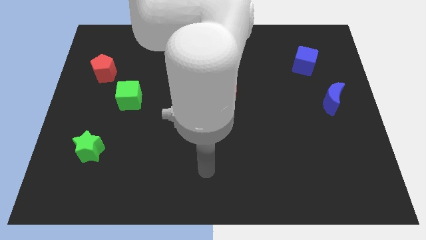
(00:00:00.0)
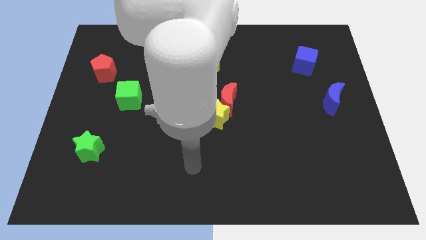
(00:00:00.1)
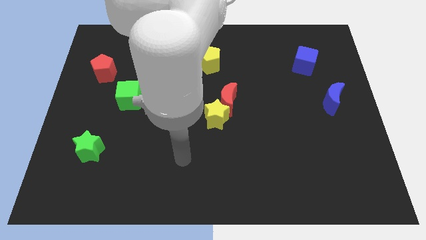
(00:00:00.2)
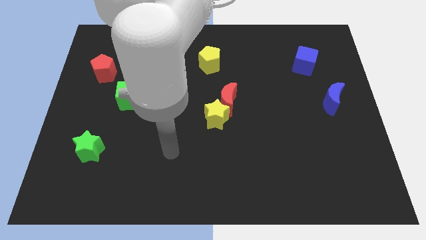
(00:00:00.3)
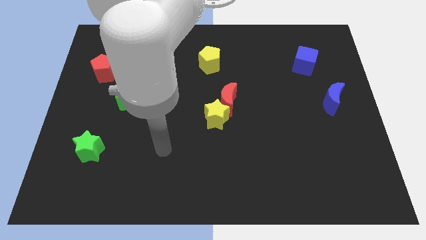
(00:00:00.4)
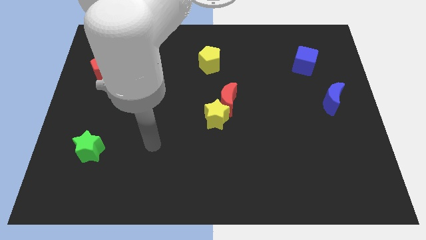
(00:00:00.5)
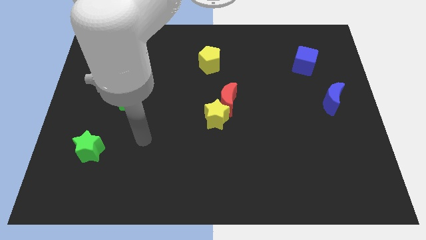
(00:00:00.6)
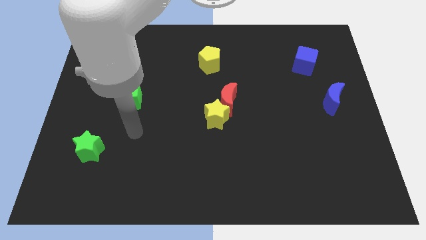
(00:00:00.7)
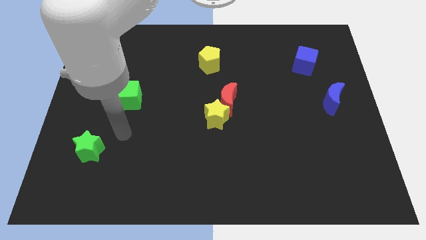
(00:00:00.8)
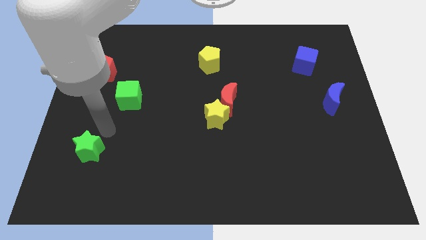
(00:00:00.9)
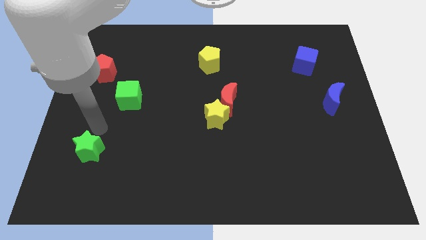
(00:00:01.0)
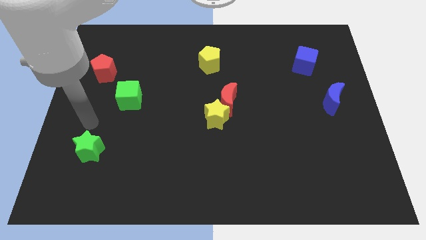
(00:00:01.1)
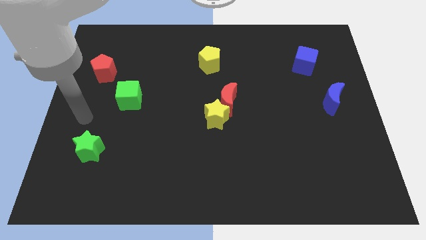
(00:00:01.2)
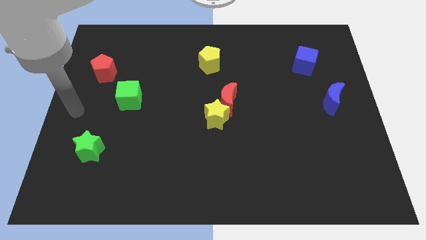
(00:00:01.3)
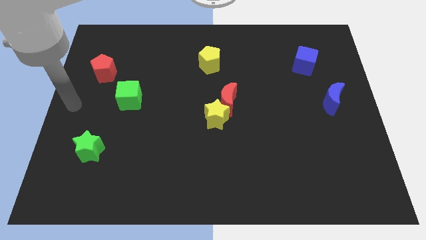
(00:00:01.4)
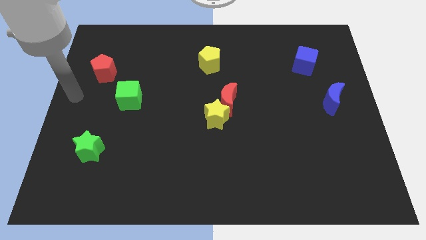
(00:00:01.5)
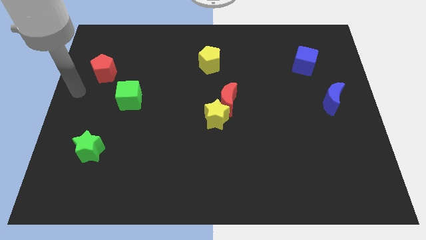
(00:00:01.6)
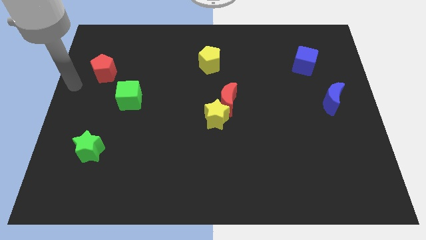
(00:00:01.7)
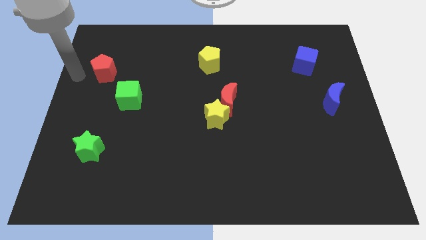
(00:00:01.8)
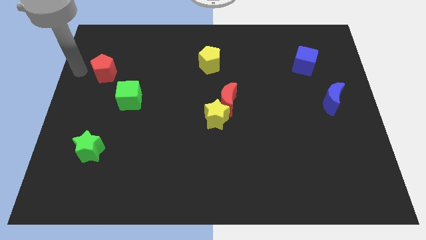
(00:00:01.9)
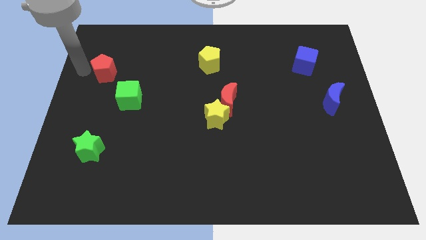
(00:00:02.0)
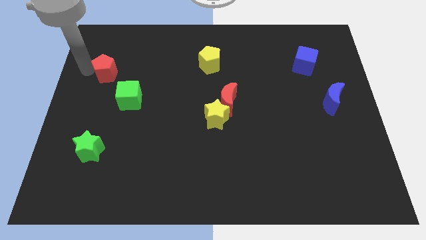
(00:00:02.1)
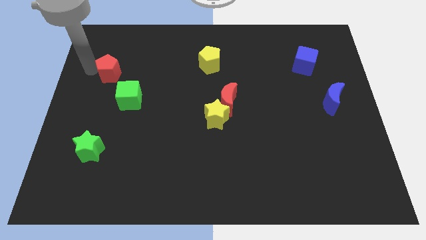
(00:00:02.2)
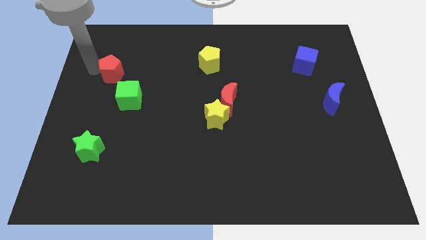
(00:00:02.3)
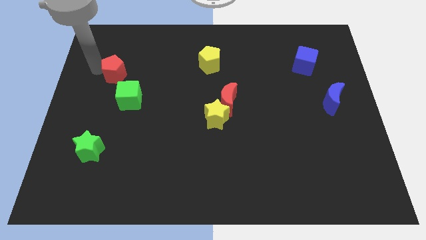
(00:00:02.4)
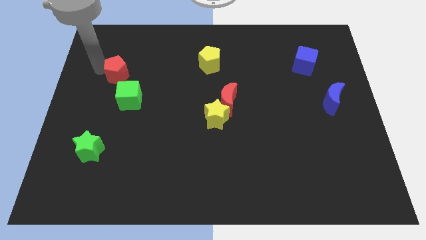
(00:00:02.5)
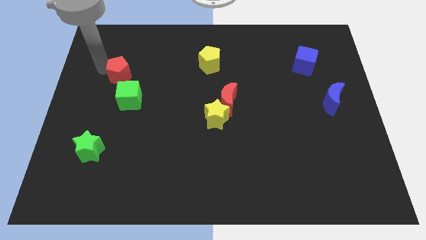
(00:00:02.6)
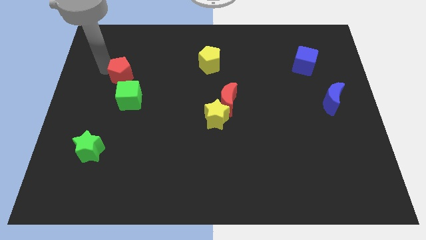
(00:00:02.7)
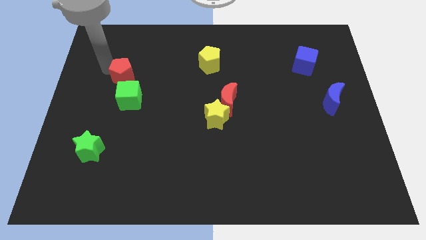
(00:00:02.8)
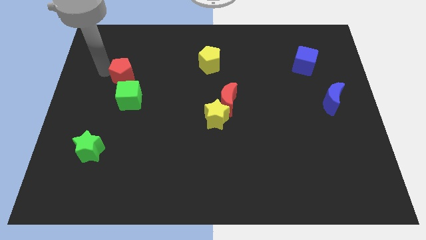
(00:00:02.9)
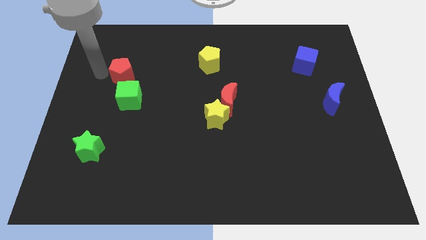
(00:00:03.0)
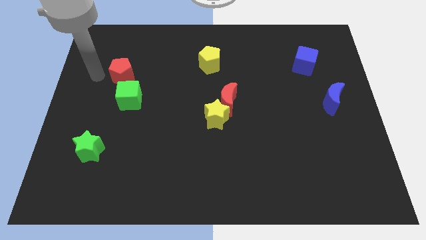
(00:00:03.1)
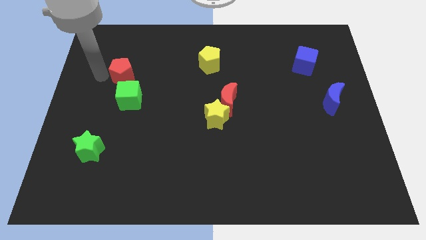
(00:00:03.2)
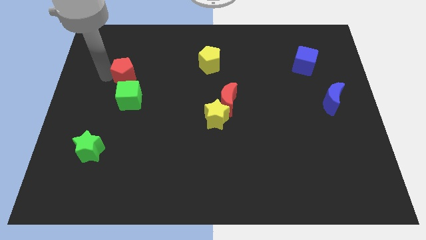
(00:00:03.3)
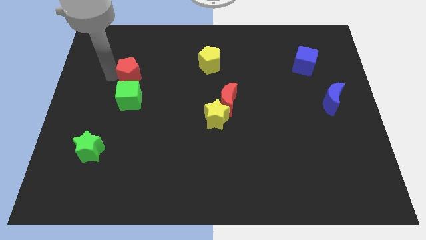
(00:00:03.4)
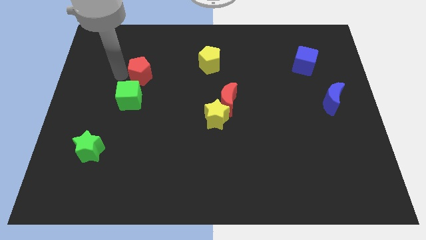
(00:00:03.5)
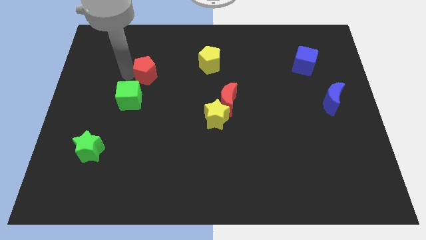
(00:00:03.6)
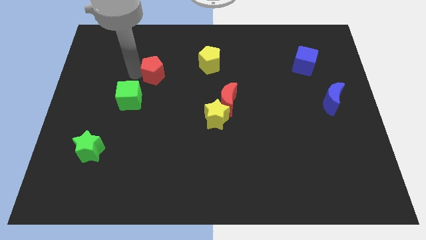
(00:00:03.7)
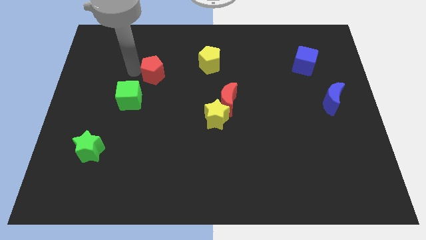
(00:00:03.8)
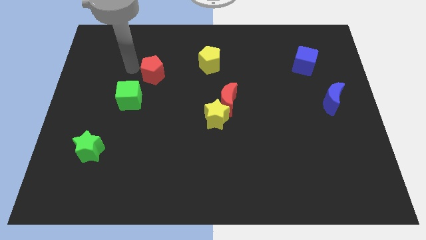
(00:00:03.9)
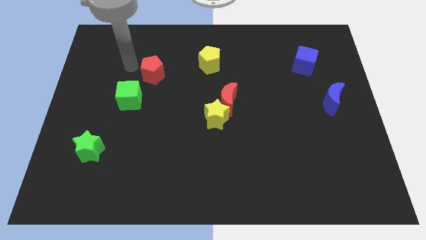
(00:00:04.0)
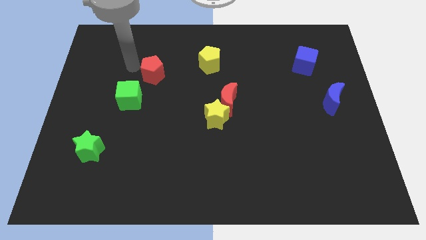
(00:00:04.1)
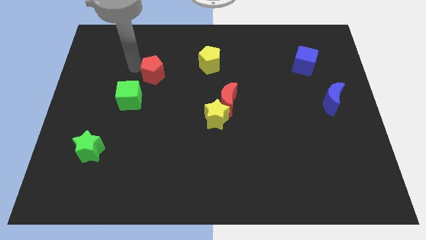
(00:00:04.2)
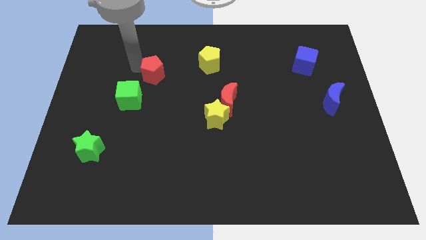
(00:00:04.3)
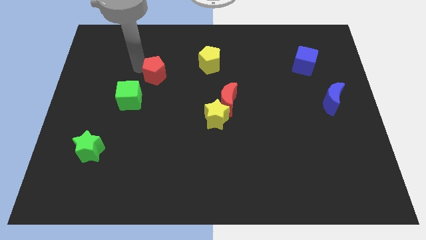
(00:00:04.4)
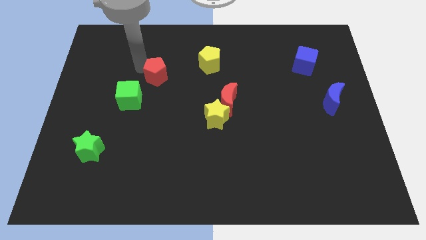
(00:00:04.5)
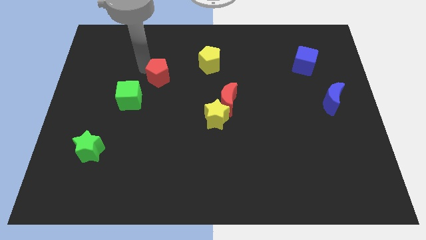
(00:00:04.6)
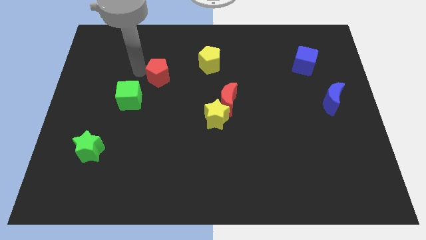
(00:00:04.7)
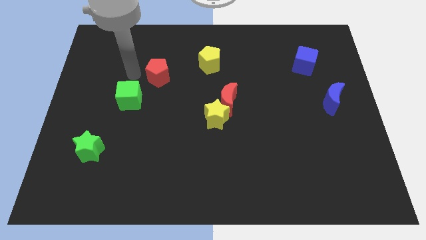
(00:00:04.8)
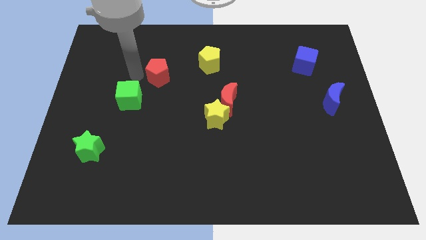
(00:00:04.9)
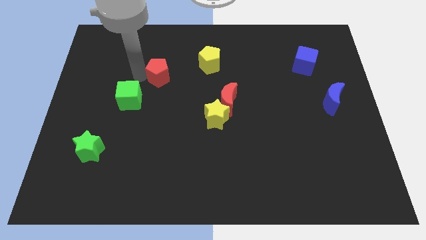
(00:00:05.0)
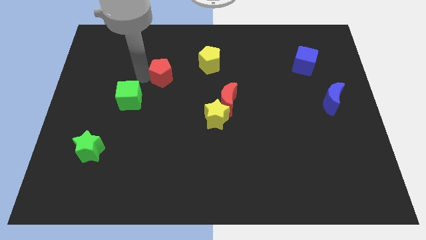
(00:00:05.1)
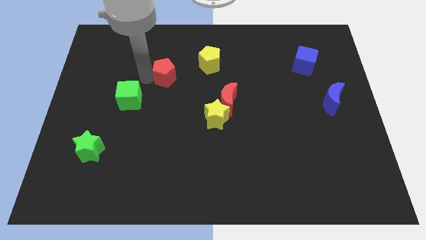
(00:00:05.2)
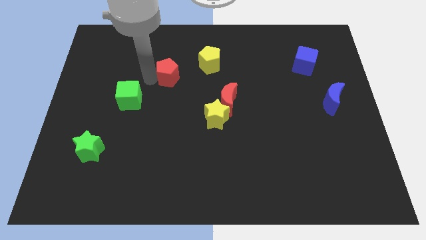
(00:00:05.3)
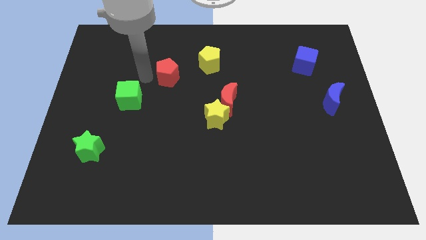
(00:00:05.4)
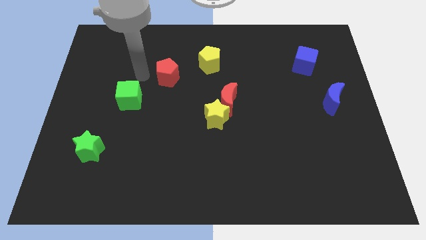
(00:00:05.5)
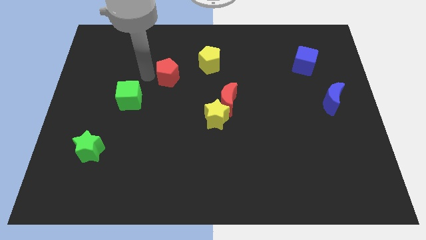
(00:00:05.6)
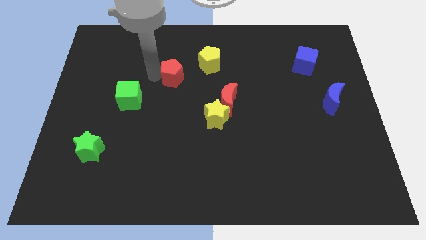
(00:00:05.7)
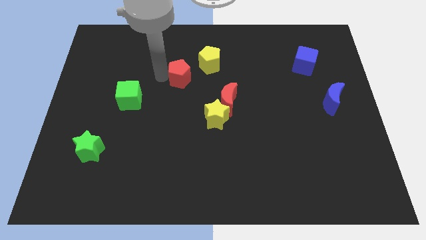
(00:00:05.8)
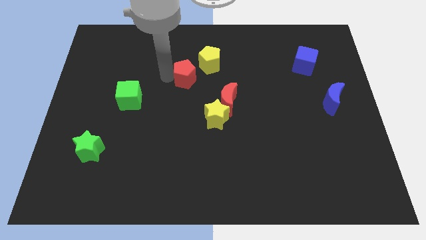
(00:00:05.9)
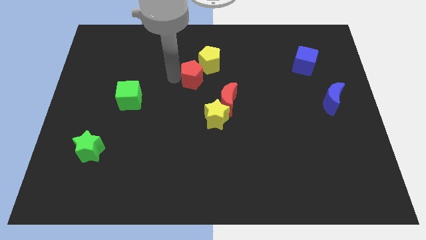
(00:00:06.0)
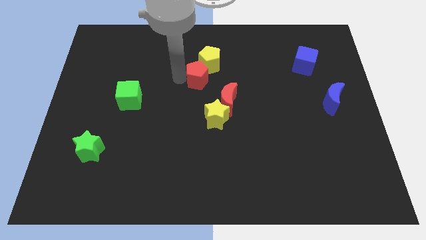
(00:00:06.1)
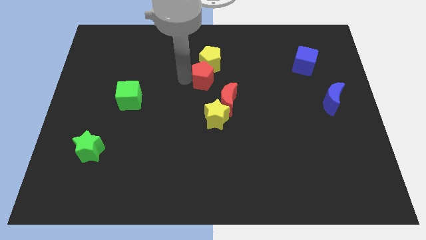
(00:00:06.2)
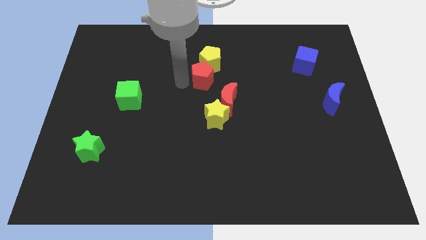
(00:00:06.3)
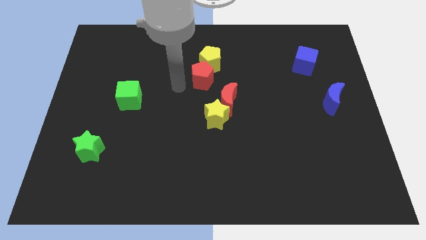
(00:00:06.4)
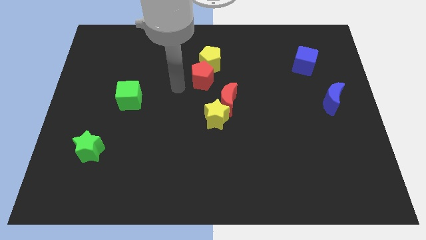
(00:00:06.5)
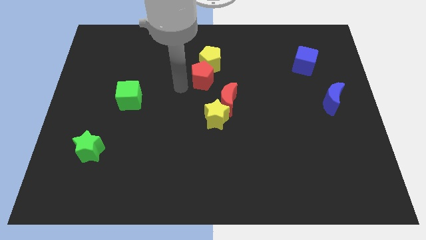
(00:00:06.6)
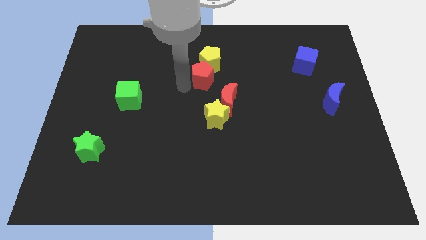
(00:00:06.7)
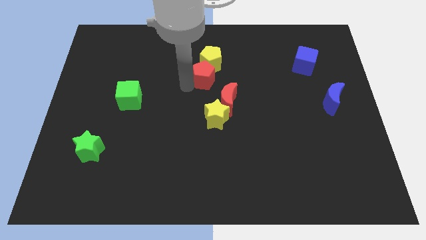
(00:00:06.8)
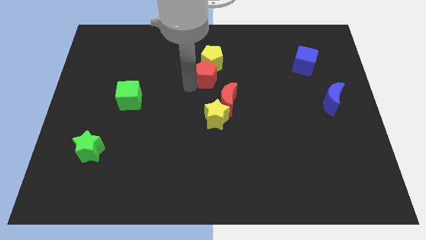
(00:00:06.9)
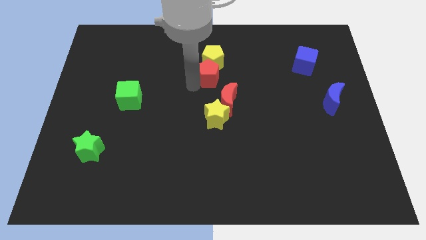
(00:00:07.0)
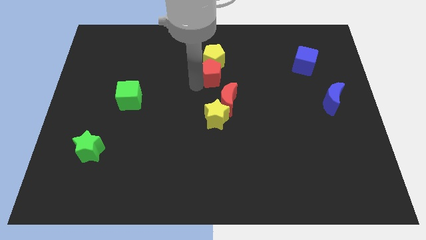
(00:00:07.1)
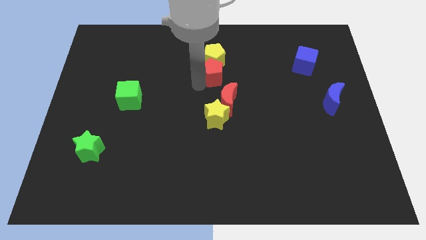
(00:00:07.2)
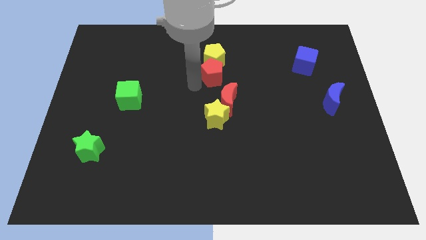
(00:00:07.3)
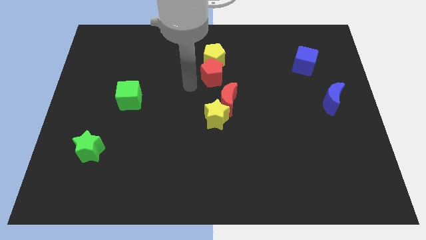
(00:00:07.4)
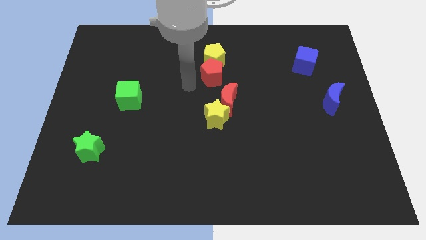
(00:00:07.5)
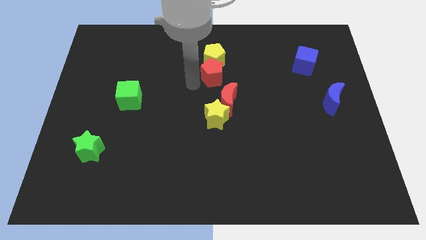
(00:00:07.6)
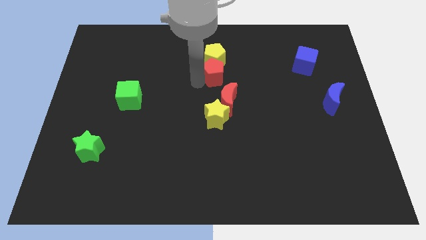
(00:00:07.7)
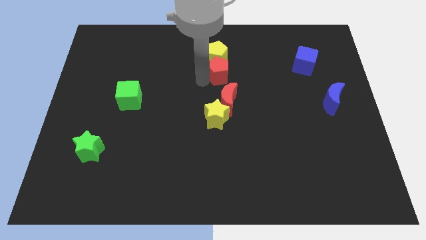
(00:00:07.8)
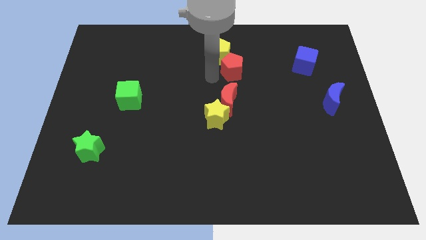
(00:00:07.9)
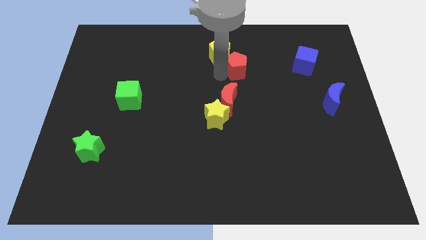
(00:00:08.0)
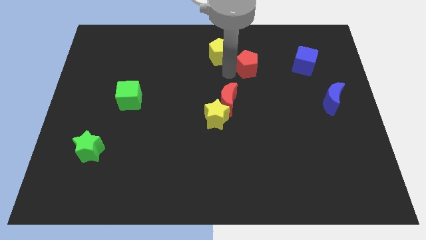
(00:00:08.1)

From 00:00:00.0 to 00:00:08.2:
slide the red pentagon just right of the yellow pentagon
